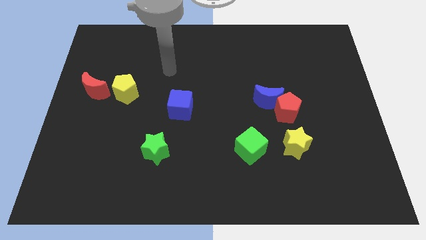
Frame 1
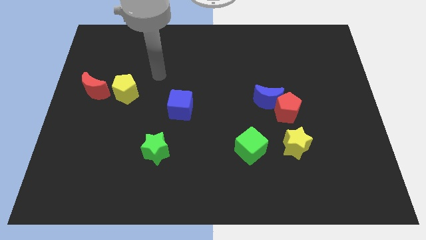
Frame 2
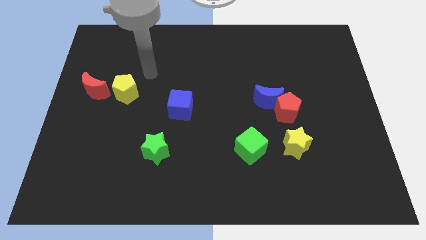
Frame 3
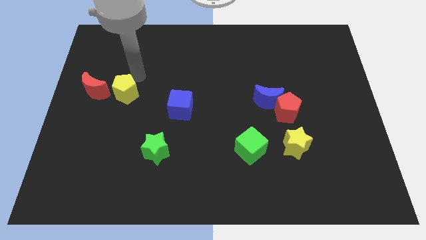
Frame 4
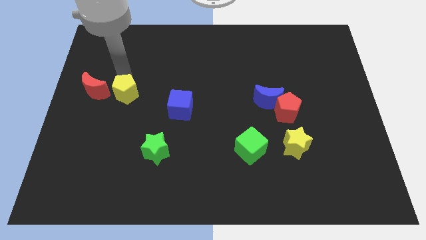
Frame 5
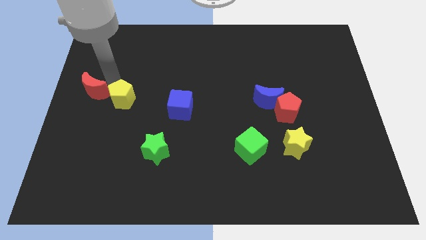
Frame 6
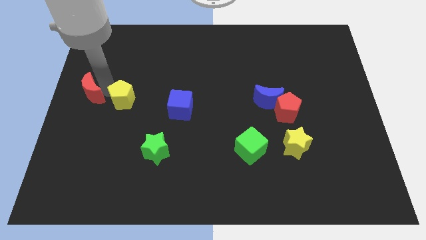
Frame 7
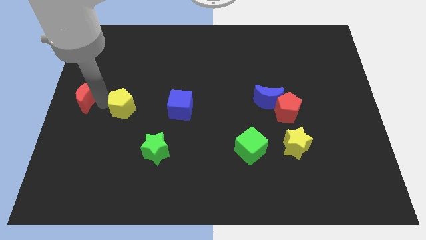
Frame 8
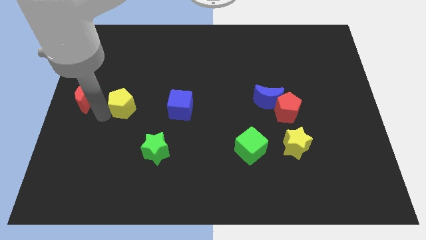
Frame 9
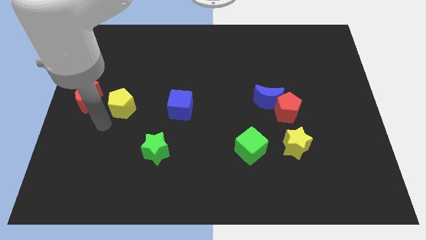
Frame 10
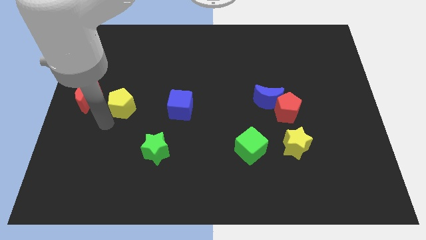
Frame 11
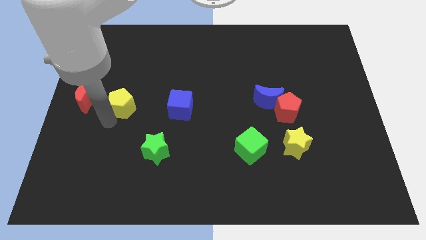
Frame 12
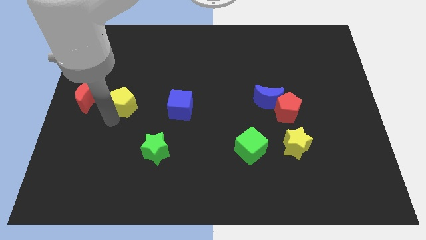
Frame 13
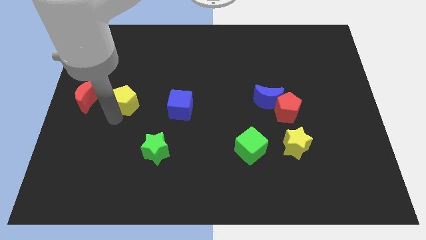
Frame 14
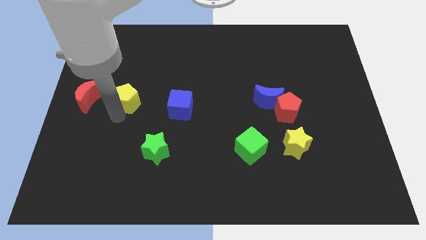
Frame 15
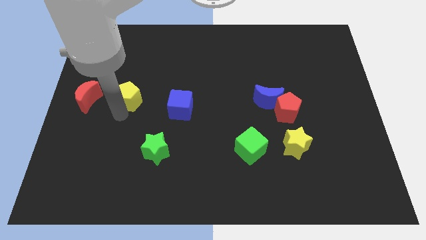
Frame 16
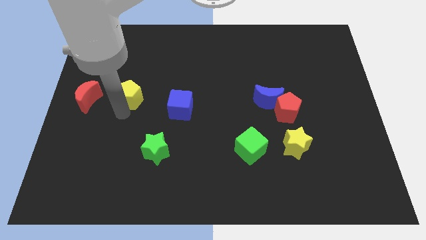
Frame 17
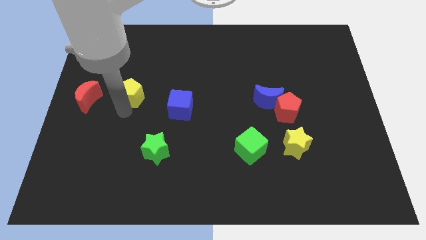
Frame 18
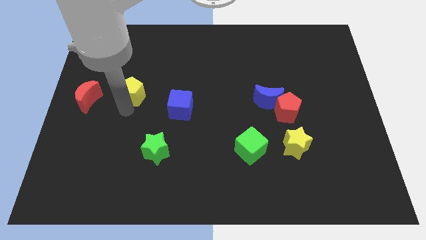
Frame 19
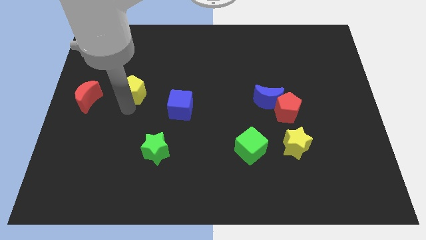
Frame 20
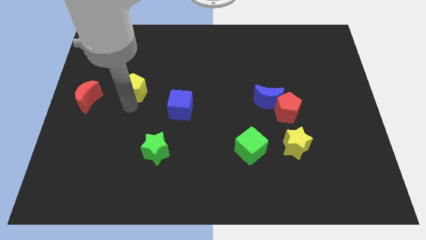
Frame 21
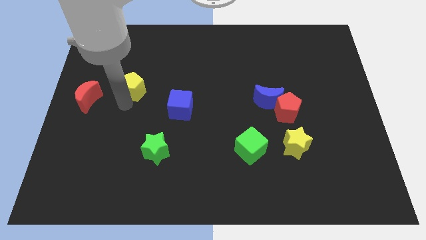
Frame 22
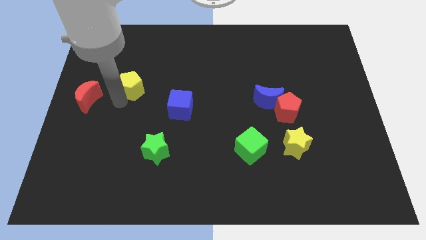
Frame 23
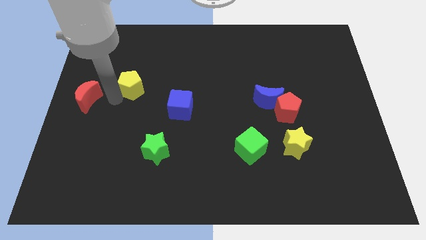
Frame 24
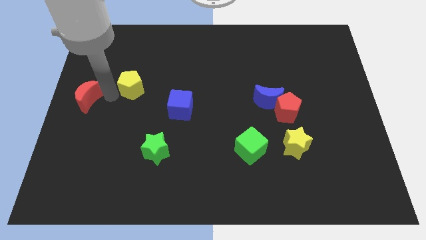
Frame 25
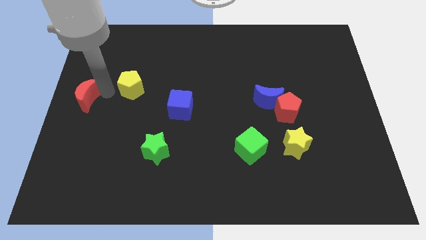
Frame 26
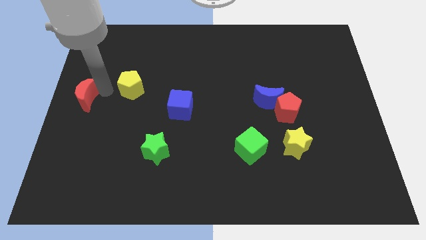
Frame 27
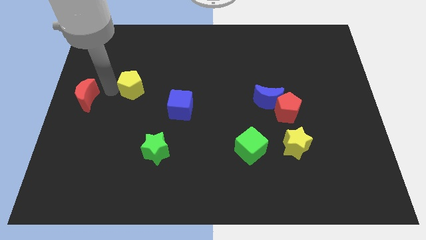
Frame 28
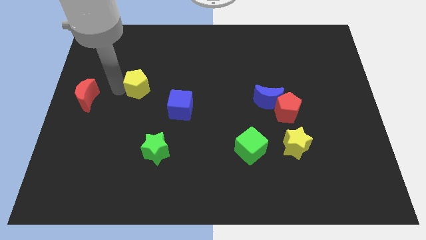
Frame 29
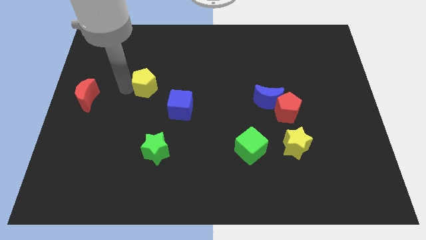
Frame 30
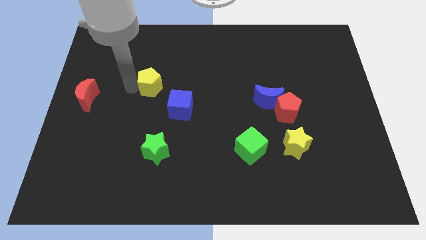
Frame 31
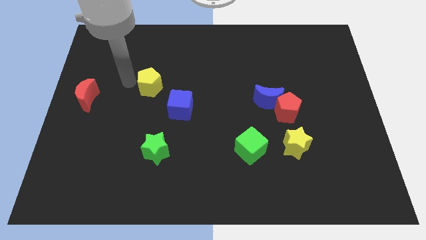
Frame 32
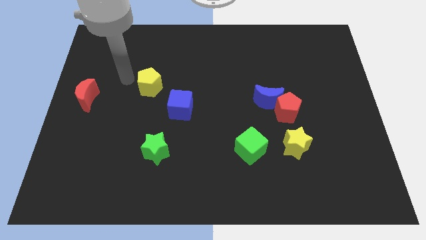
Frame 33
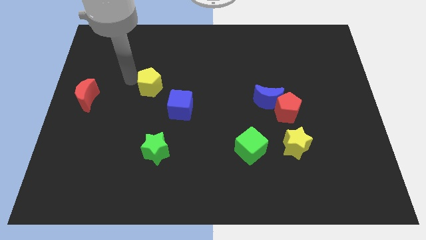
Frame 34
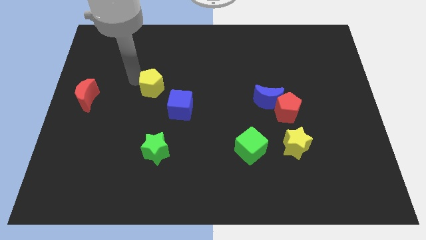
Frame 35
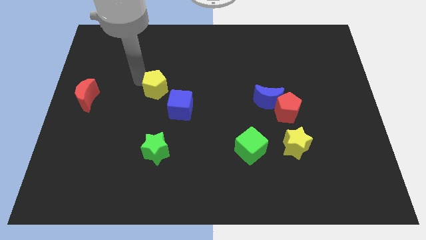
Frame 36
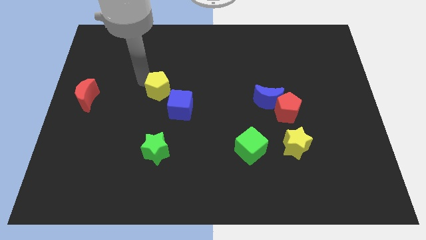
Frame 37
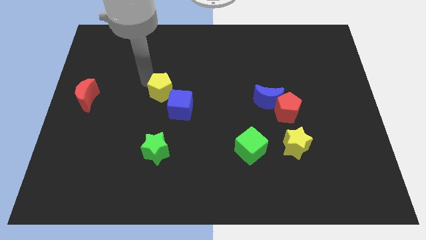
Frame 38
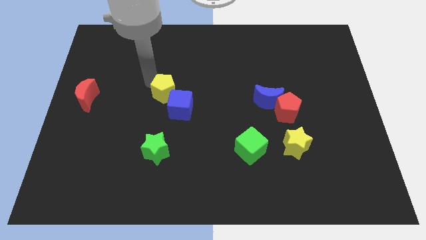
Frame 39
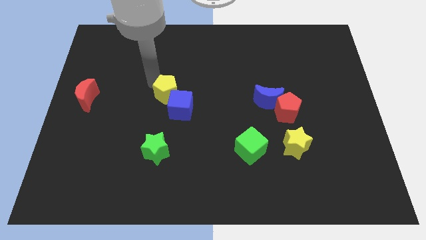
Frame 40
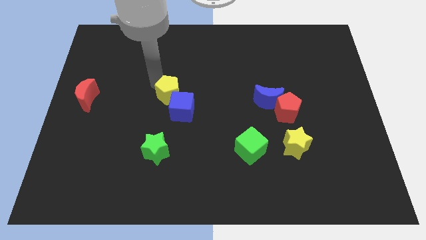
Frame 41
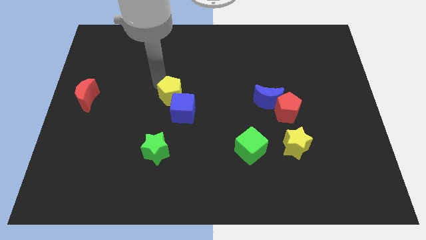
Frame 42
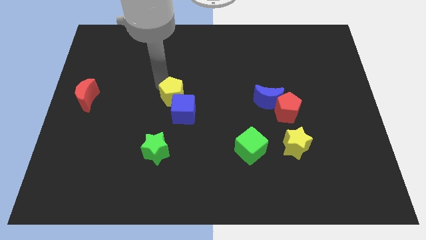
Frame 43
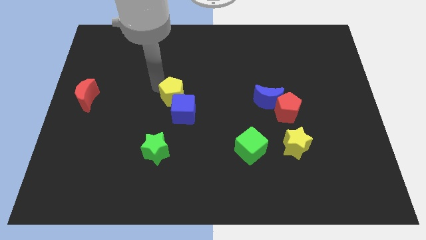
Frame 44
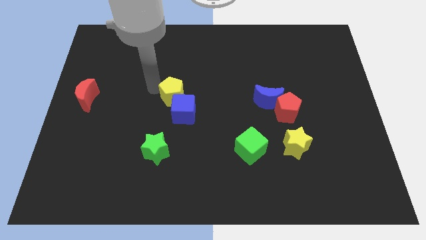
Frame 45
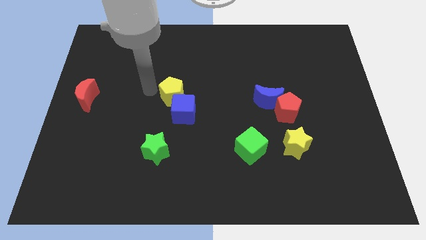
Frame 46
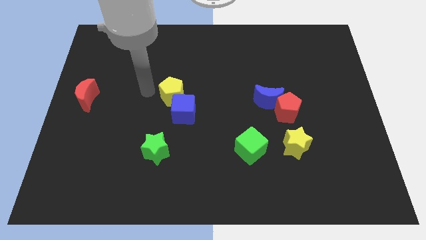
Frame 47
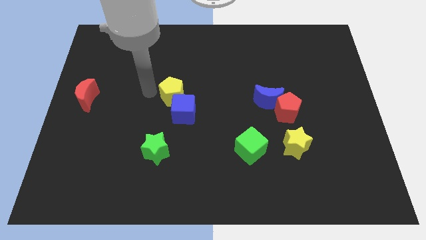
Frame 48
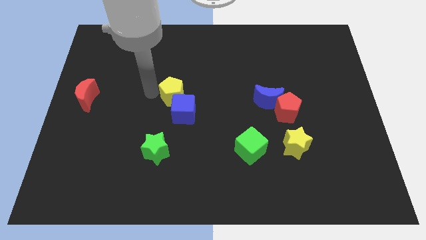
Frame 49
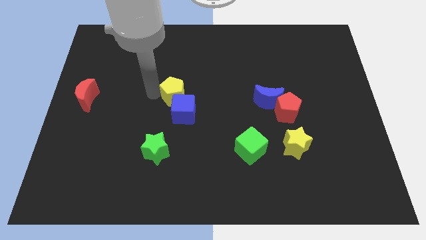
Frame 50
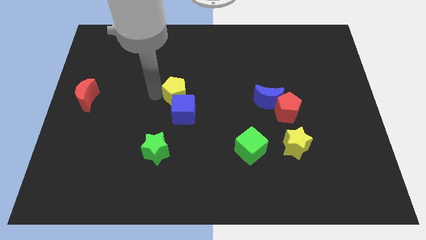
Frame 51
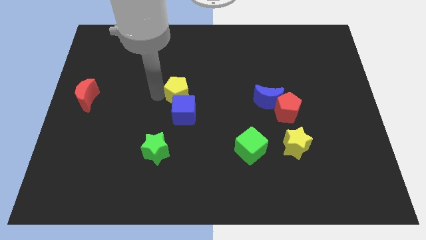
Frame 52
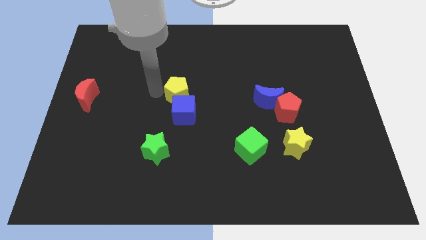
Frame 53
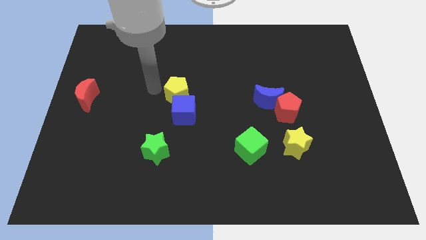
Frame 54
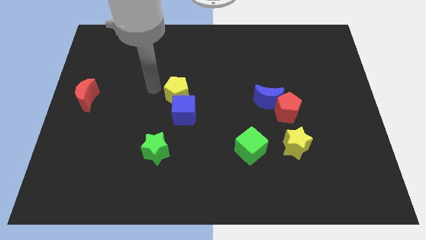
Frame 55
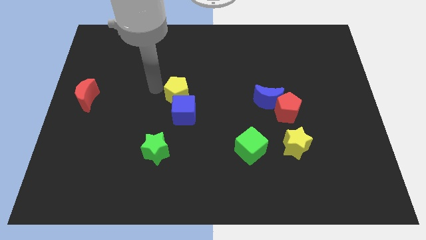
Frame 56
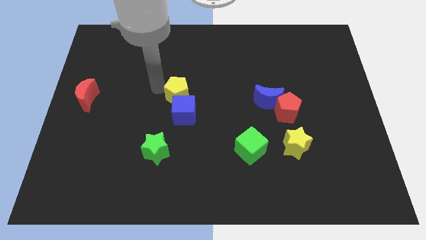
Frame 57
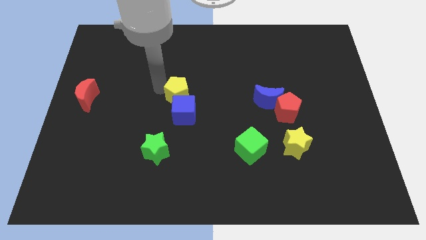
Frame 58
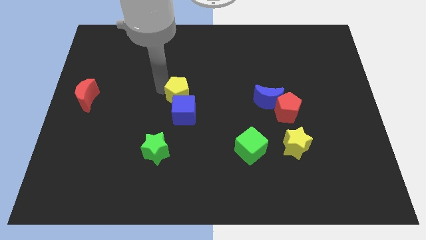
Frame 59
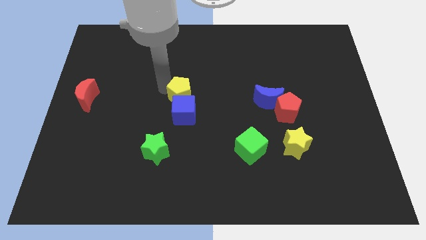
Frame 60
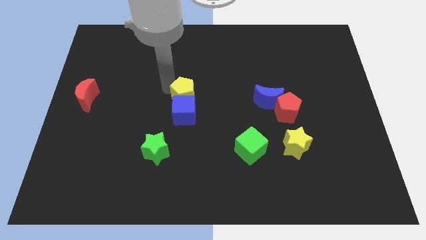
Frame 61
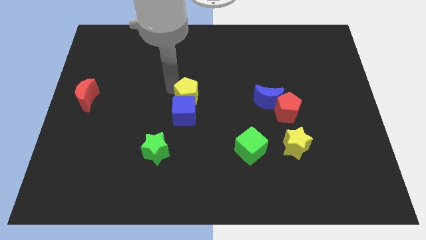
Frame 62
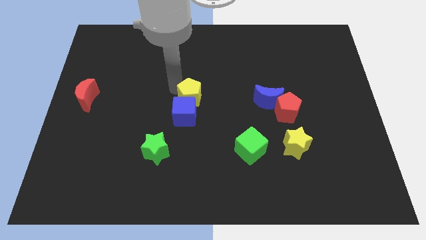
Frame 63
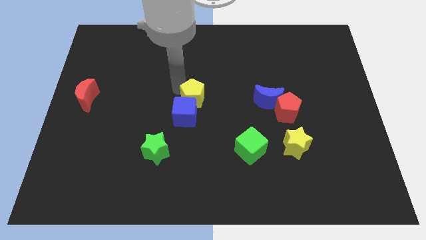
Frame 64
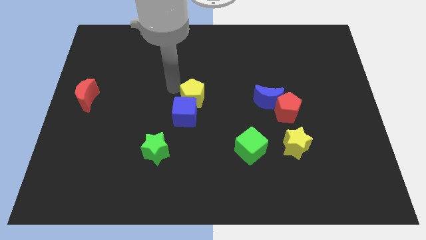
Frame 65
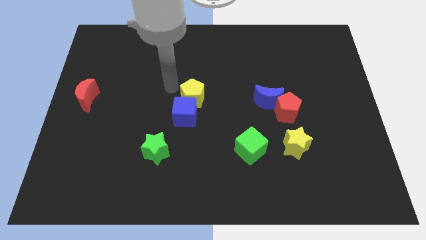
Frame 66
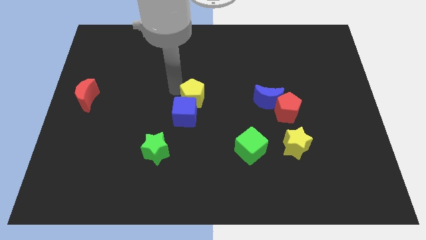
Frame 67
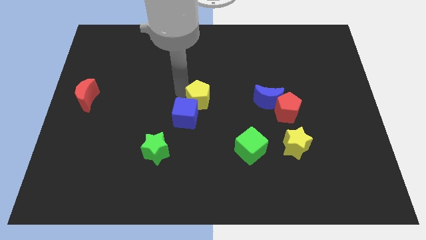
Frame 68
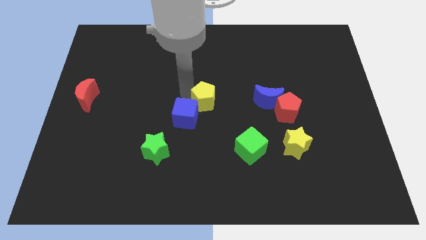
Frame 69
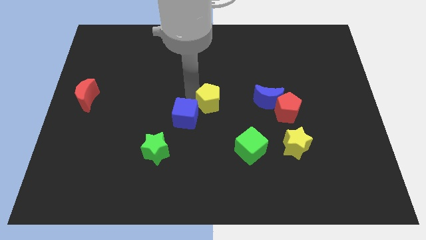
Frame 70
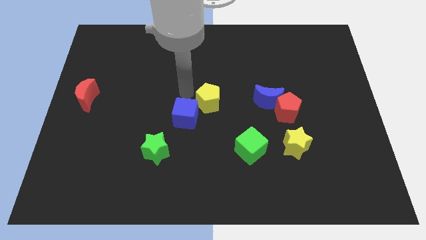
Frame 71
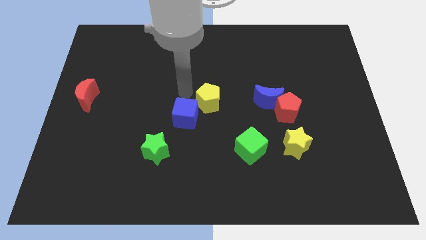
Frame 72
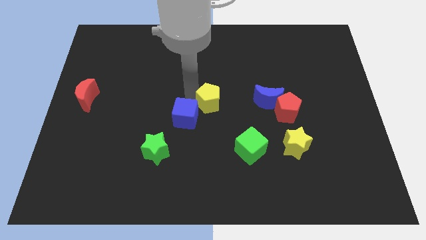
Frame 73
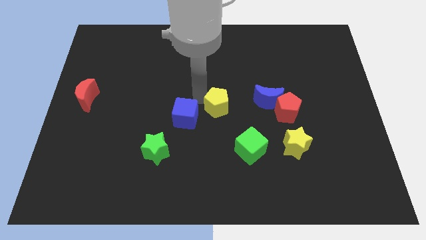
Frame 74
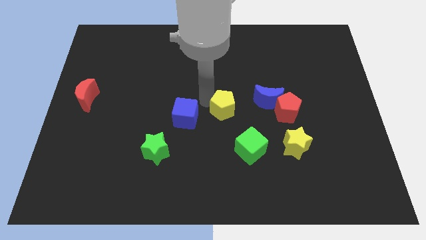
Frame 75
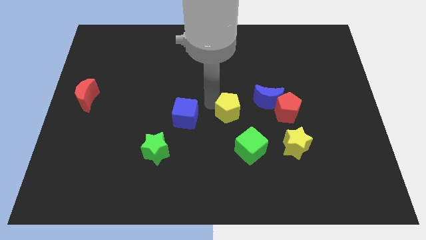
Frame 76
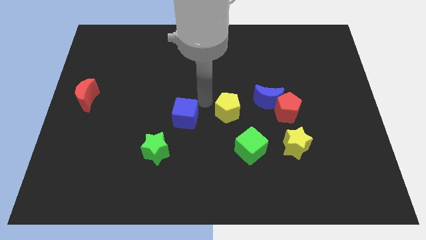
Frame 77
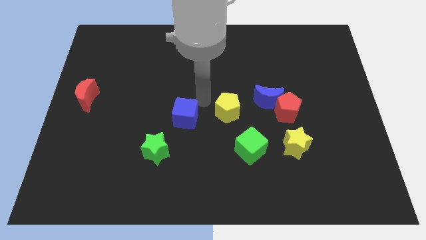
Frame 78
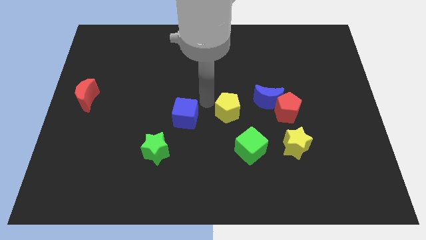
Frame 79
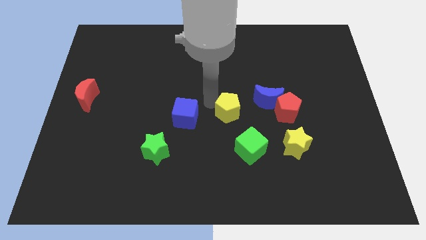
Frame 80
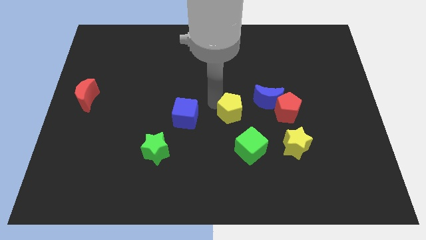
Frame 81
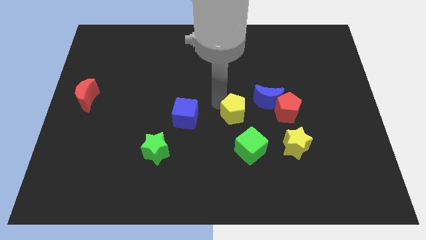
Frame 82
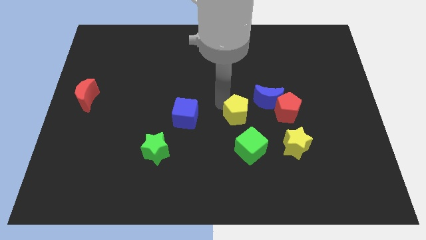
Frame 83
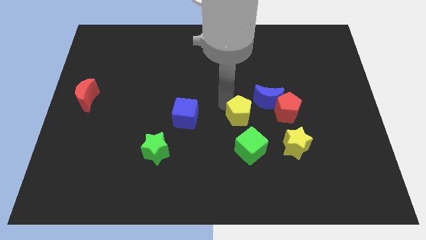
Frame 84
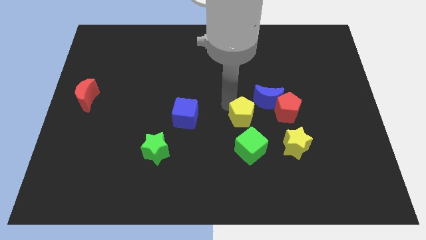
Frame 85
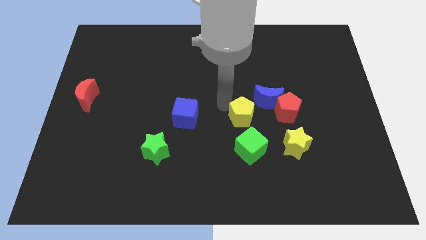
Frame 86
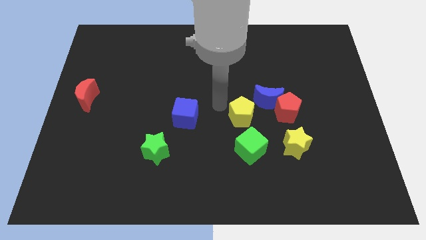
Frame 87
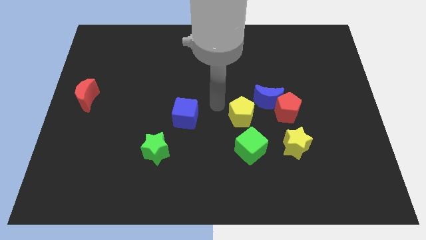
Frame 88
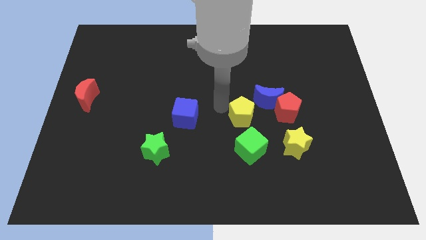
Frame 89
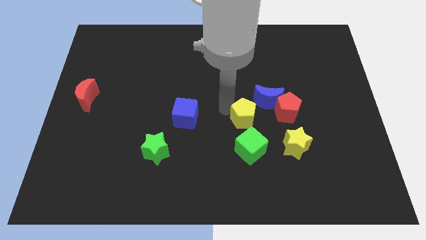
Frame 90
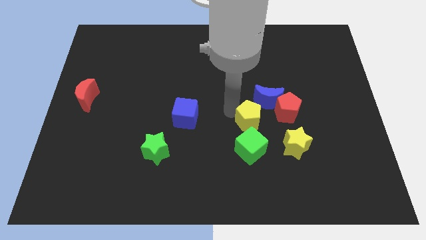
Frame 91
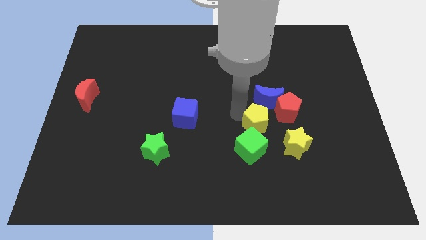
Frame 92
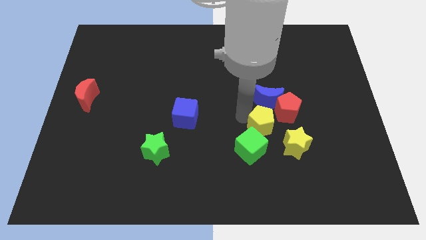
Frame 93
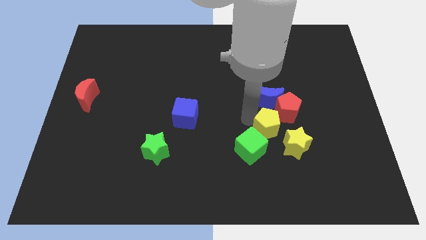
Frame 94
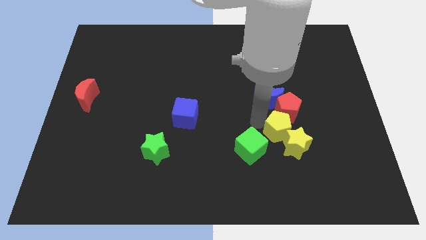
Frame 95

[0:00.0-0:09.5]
put the yellow pentagon close to the yellow star
